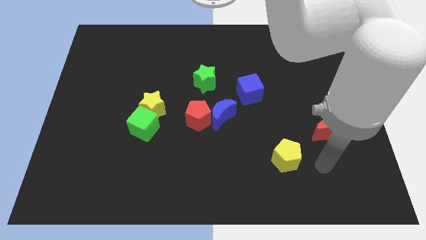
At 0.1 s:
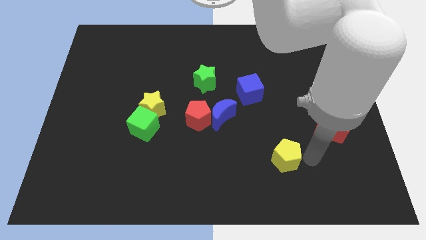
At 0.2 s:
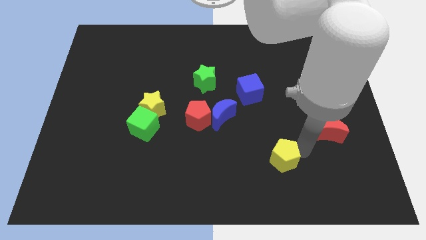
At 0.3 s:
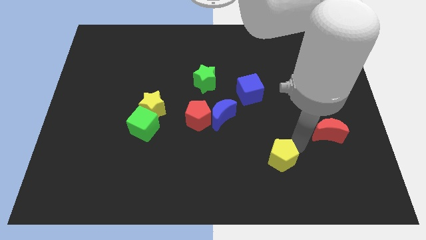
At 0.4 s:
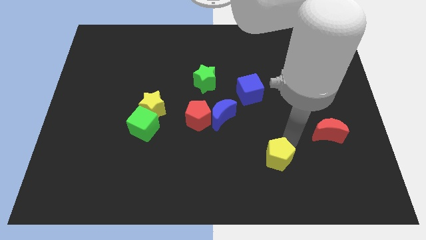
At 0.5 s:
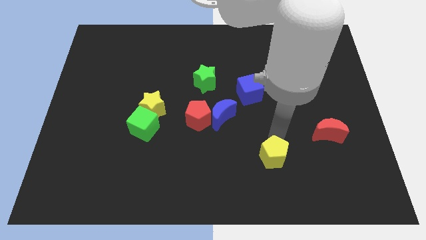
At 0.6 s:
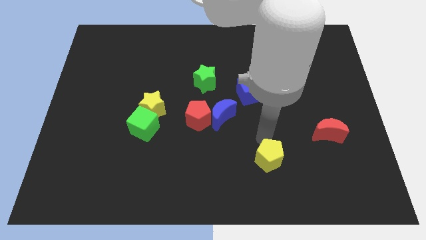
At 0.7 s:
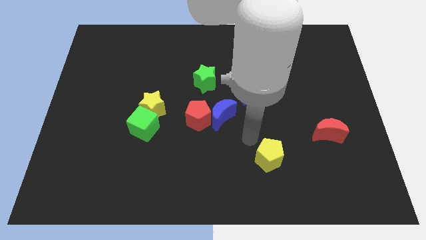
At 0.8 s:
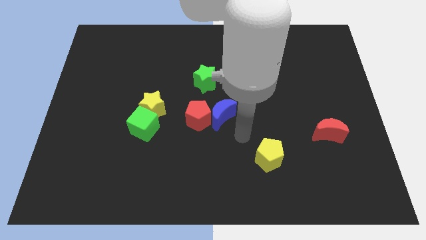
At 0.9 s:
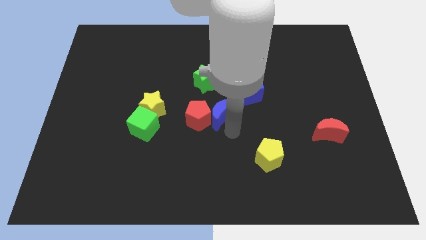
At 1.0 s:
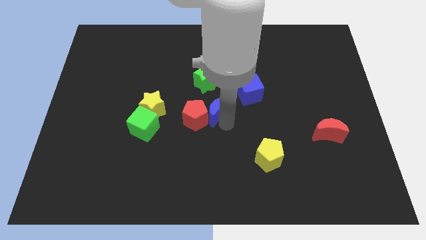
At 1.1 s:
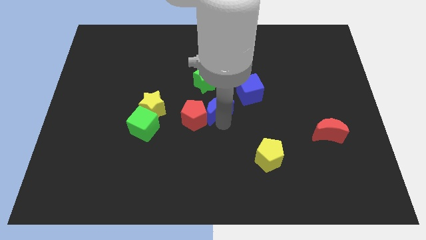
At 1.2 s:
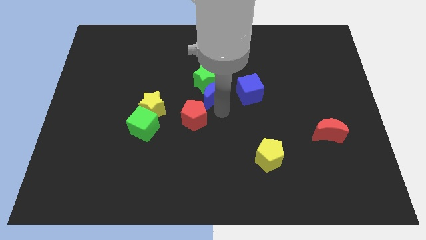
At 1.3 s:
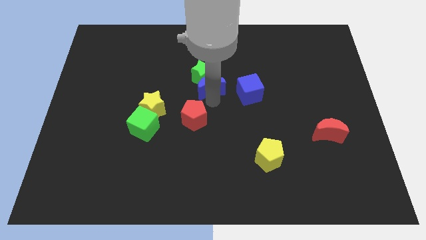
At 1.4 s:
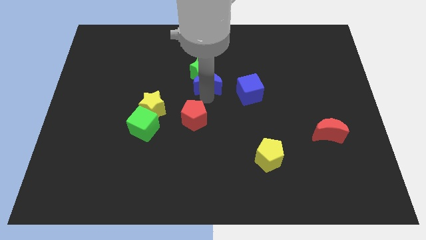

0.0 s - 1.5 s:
move the red pentagon away from the blue moon

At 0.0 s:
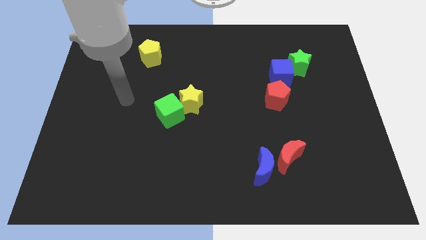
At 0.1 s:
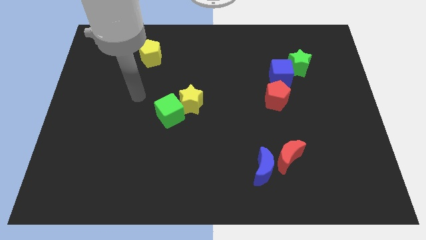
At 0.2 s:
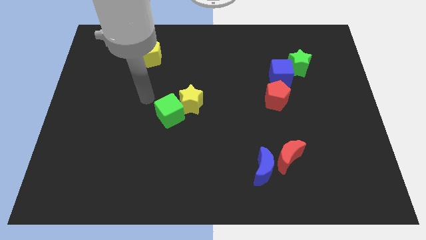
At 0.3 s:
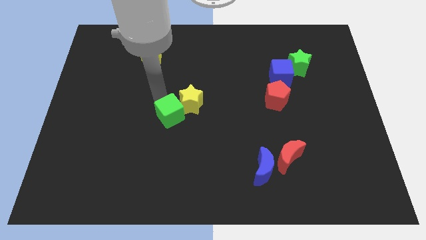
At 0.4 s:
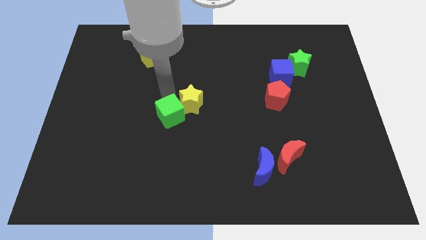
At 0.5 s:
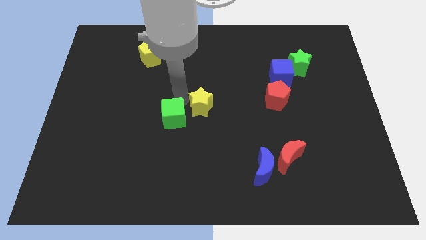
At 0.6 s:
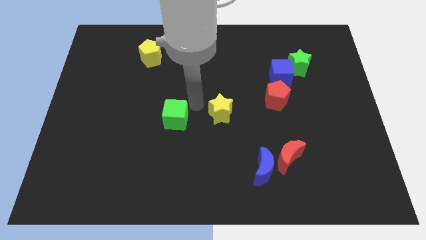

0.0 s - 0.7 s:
pull the green cube apart from the yellow star

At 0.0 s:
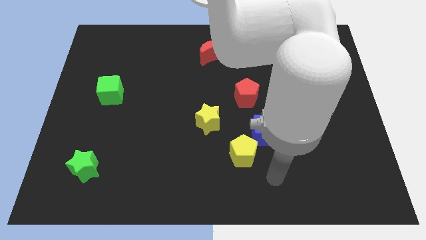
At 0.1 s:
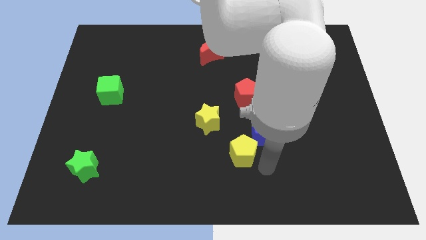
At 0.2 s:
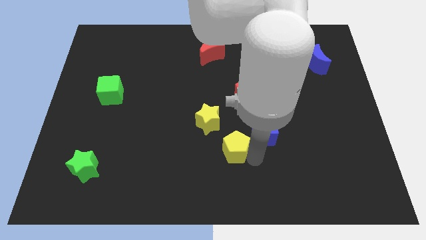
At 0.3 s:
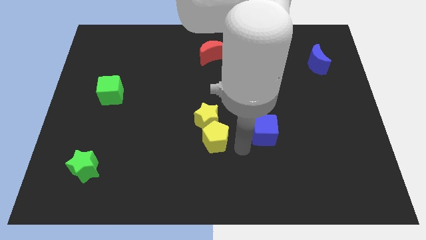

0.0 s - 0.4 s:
move the blue cube away from the yellow pentagon

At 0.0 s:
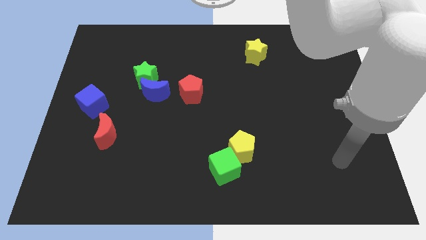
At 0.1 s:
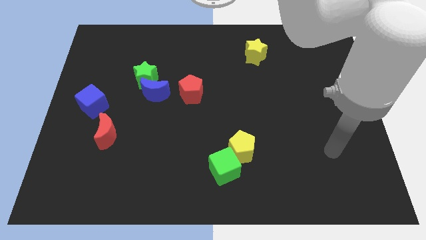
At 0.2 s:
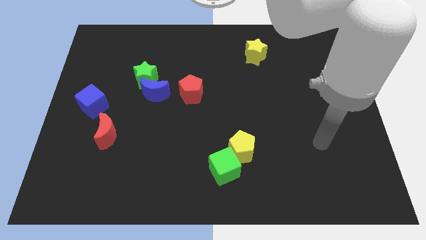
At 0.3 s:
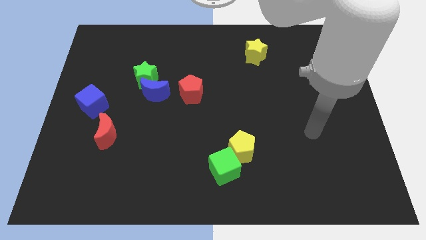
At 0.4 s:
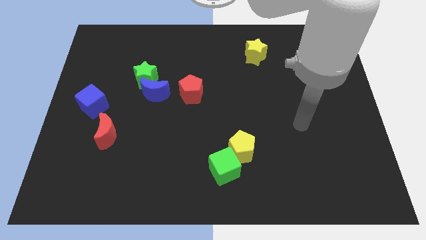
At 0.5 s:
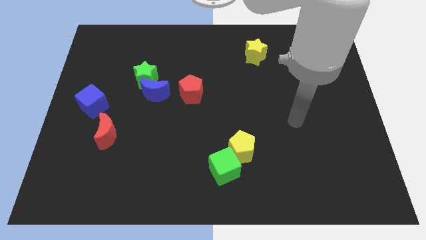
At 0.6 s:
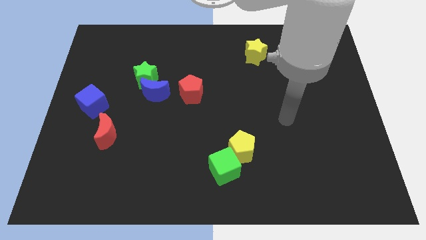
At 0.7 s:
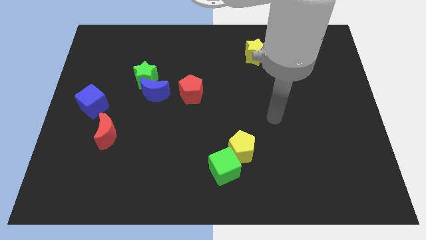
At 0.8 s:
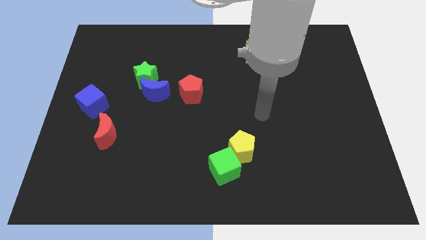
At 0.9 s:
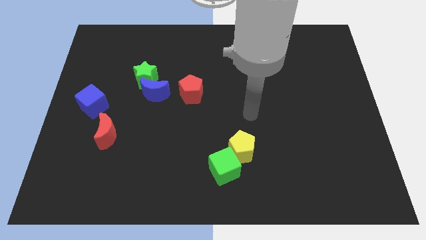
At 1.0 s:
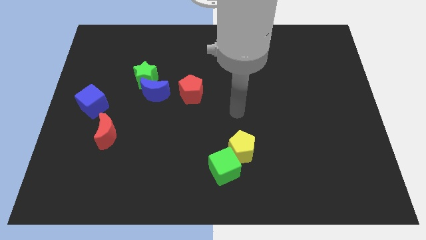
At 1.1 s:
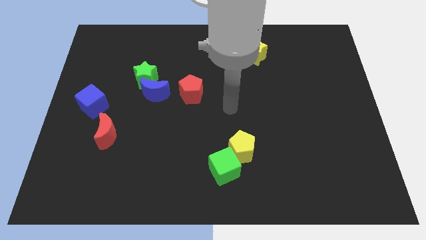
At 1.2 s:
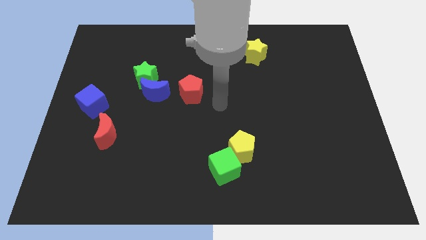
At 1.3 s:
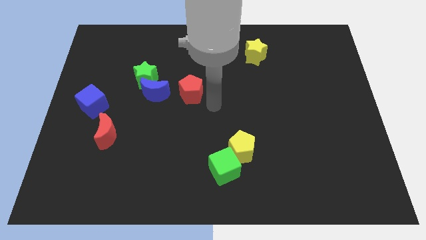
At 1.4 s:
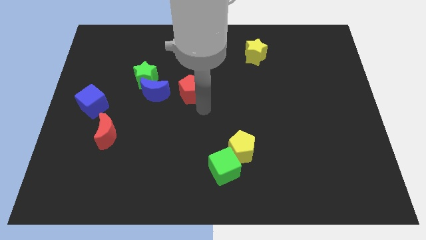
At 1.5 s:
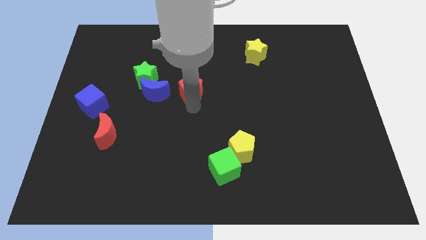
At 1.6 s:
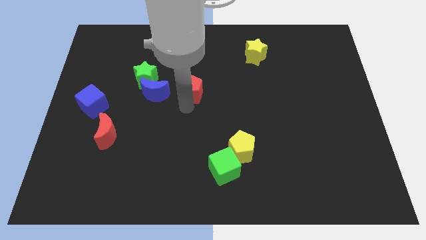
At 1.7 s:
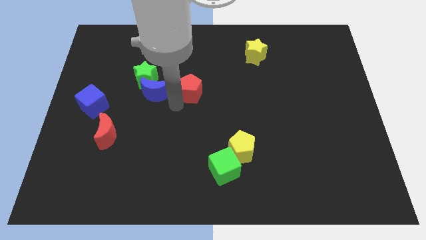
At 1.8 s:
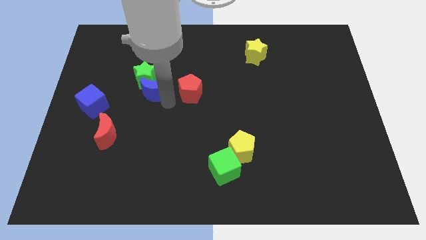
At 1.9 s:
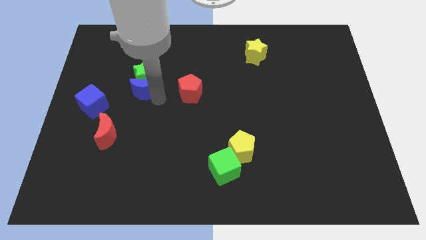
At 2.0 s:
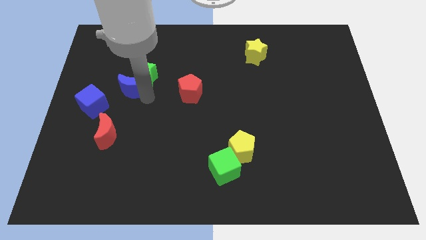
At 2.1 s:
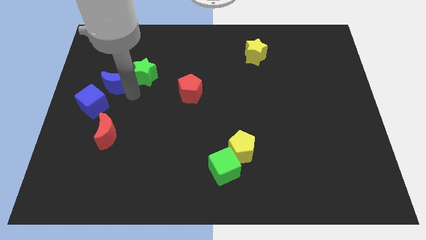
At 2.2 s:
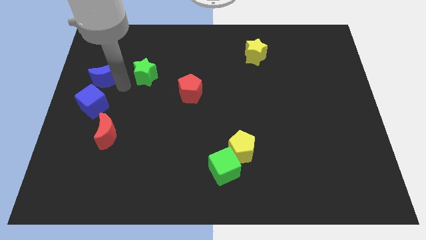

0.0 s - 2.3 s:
pull the green star apart from the blue moon

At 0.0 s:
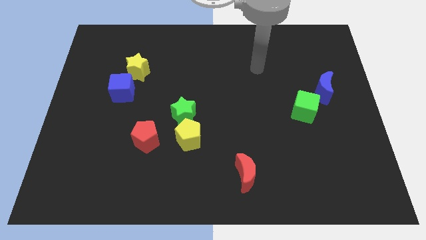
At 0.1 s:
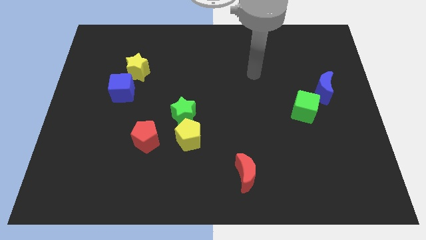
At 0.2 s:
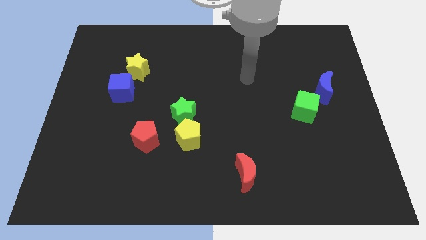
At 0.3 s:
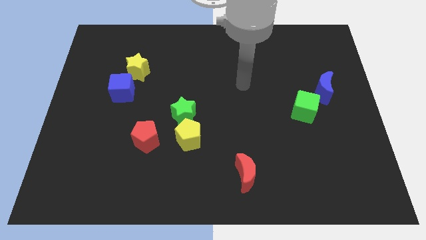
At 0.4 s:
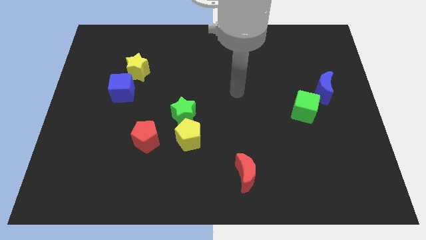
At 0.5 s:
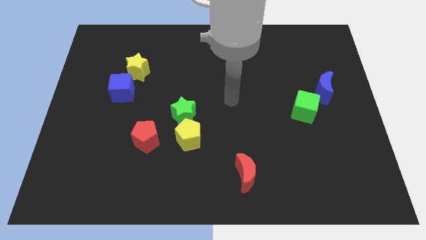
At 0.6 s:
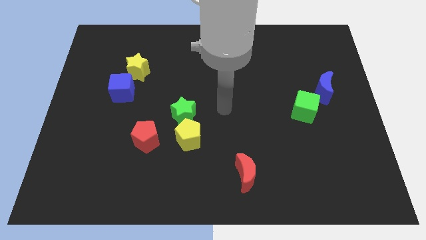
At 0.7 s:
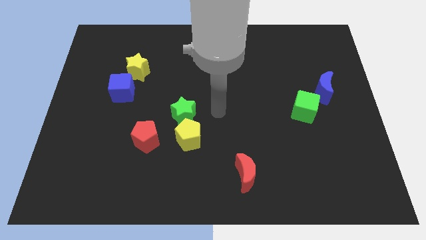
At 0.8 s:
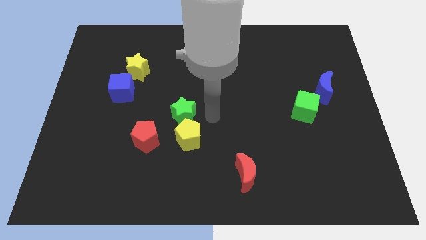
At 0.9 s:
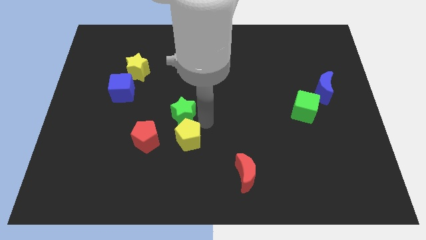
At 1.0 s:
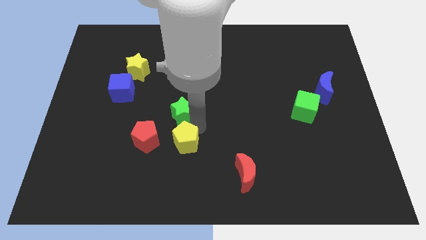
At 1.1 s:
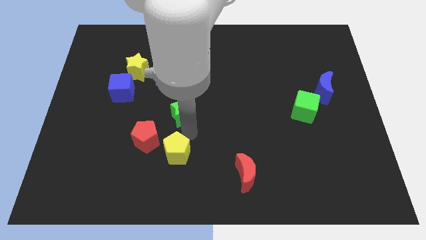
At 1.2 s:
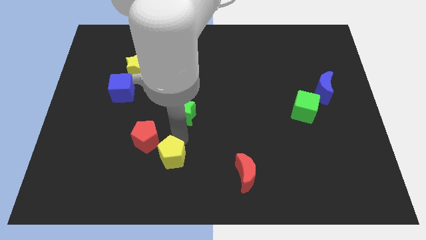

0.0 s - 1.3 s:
separate the green star from the yellow pentagon

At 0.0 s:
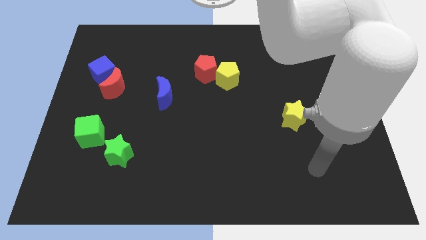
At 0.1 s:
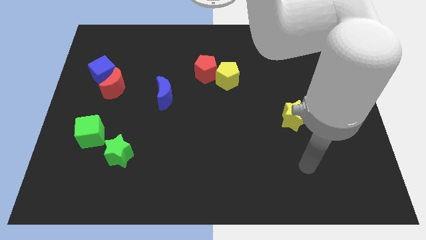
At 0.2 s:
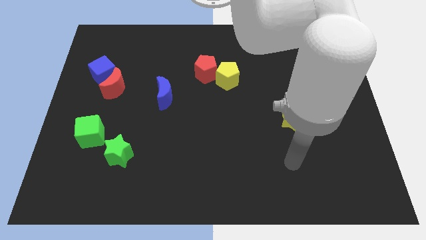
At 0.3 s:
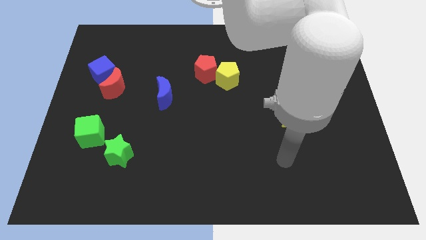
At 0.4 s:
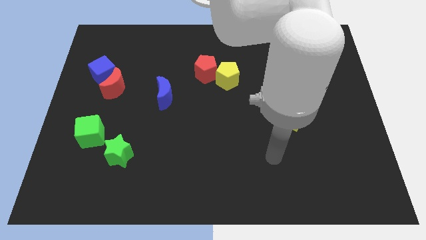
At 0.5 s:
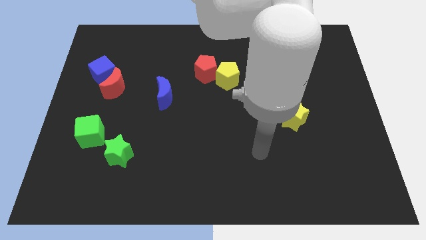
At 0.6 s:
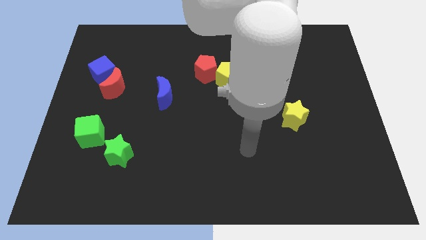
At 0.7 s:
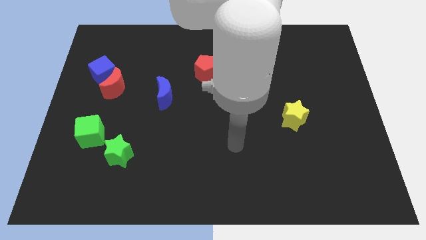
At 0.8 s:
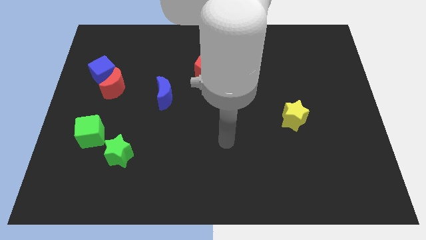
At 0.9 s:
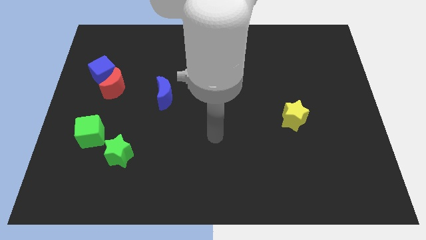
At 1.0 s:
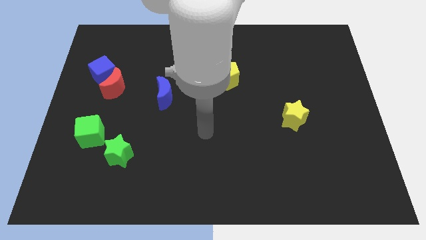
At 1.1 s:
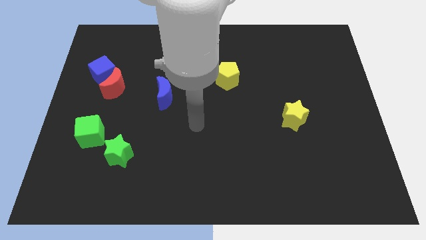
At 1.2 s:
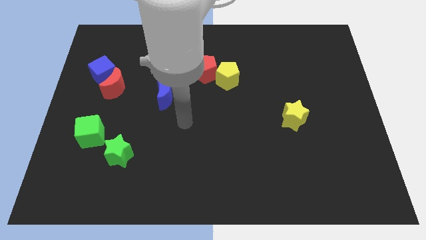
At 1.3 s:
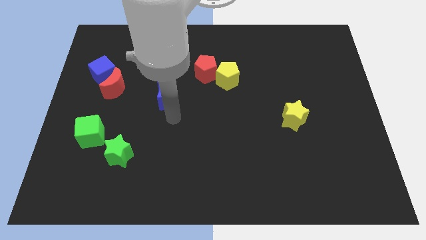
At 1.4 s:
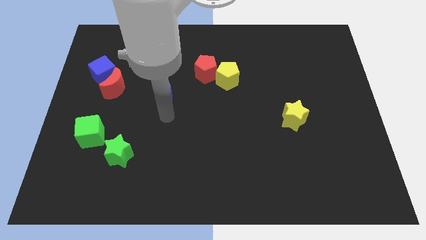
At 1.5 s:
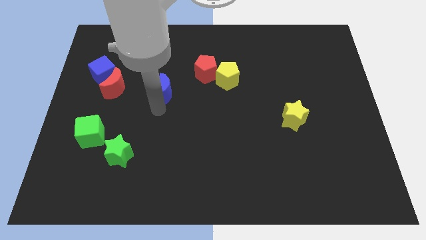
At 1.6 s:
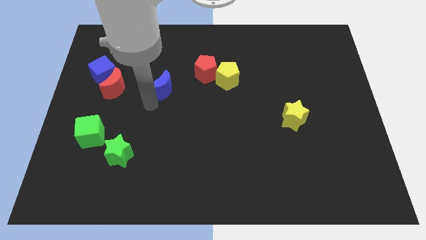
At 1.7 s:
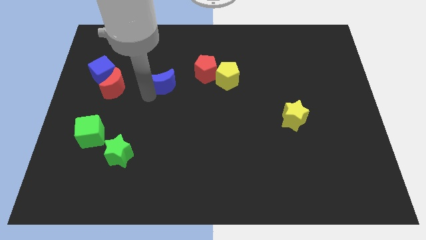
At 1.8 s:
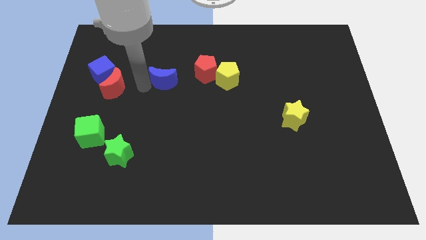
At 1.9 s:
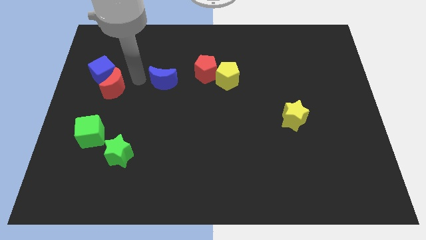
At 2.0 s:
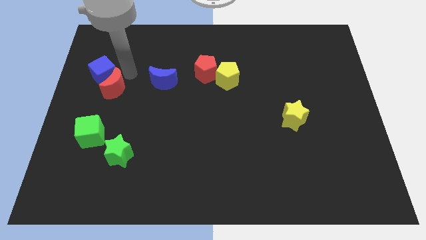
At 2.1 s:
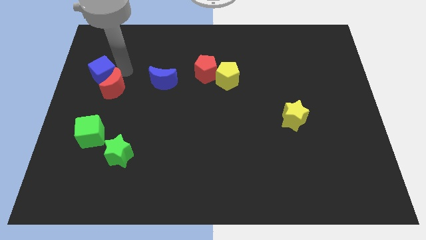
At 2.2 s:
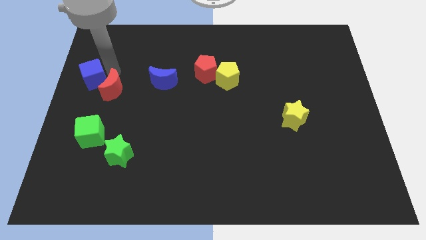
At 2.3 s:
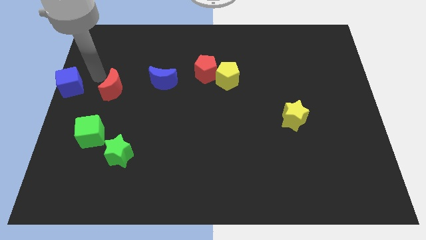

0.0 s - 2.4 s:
pull the red moon apart from the blue cube

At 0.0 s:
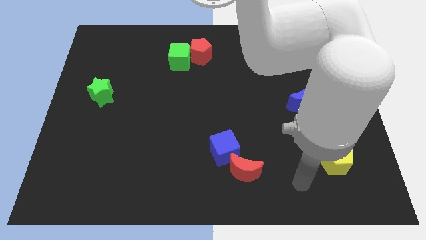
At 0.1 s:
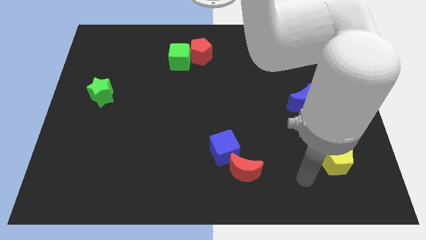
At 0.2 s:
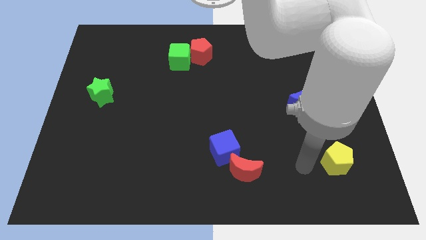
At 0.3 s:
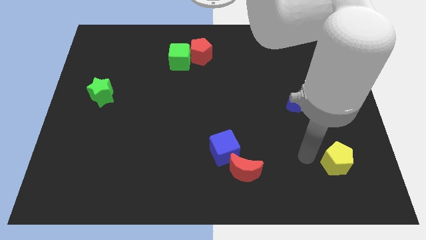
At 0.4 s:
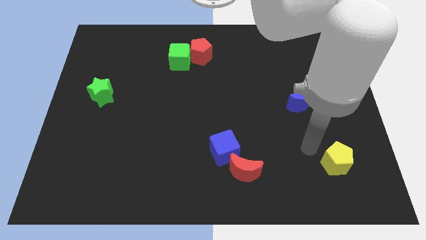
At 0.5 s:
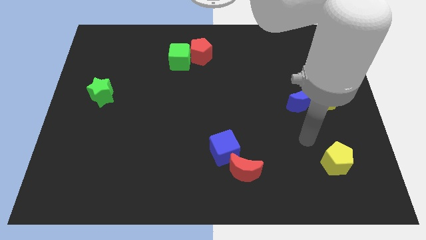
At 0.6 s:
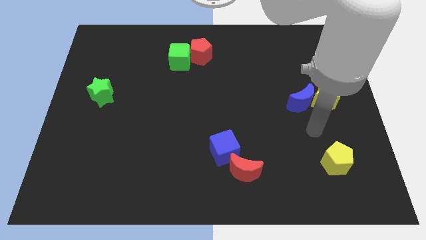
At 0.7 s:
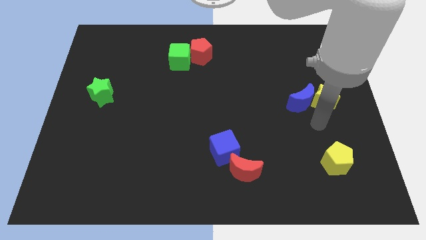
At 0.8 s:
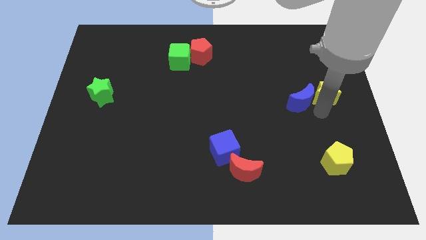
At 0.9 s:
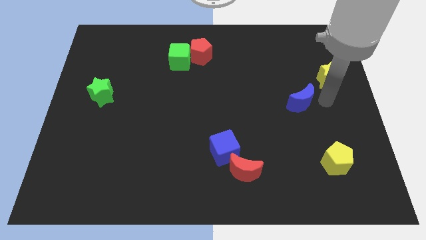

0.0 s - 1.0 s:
move the blue moon away from the yellow star
